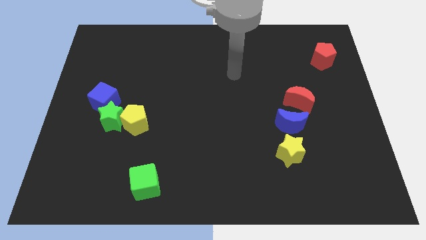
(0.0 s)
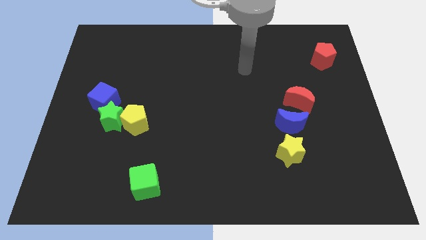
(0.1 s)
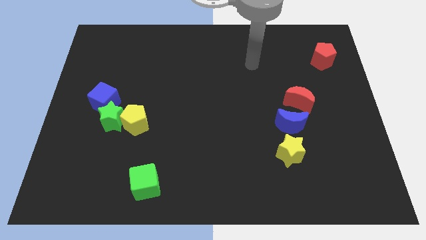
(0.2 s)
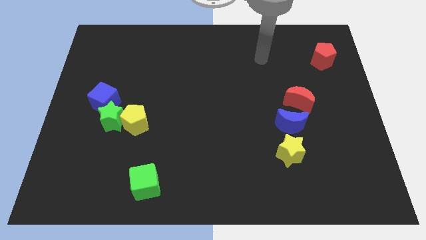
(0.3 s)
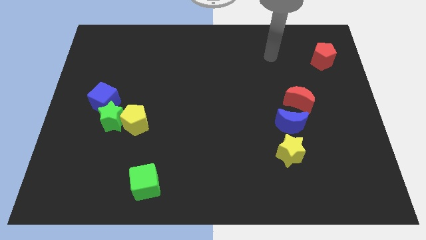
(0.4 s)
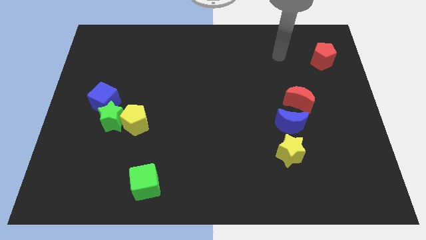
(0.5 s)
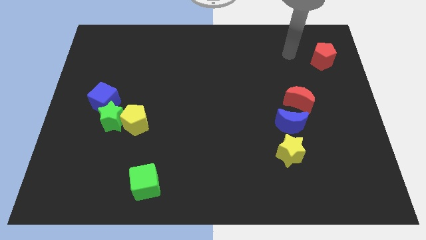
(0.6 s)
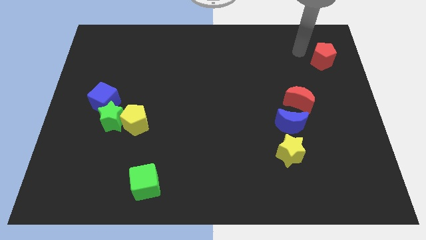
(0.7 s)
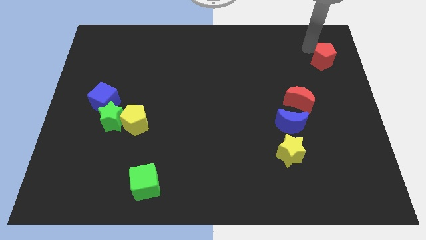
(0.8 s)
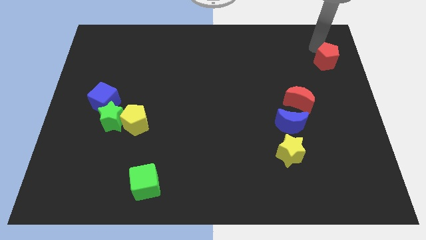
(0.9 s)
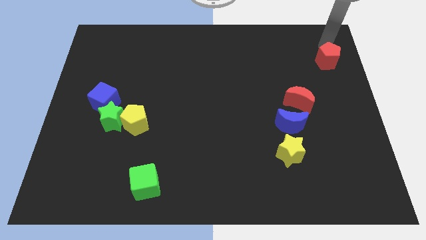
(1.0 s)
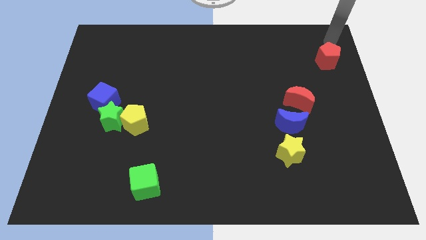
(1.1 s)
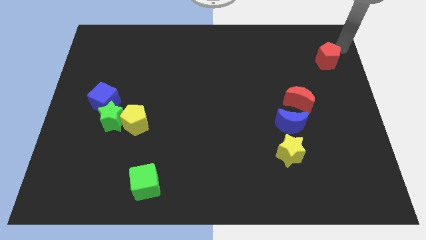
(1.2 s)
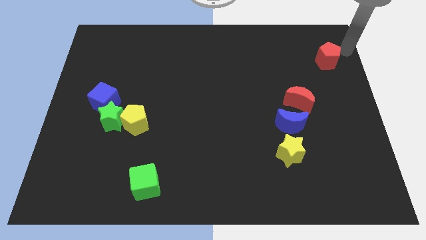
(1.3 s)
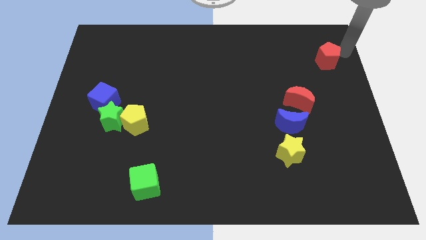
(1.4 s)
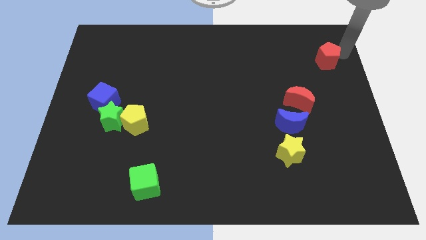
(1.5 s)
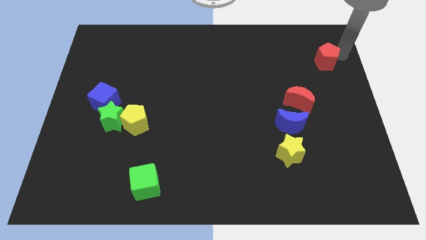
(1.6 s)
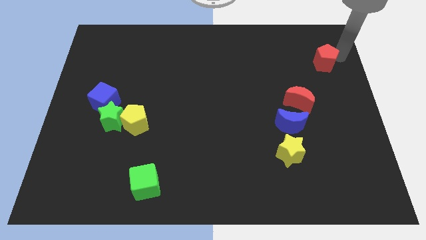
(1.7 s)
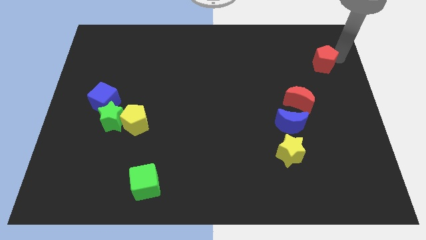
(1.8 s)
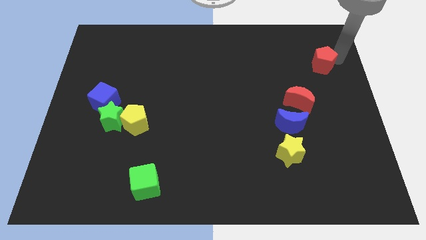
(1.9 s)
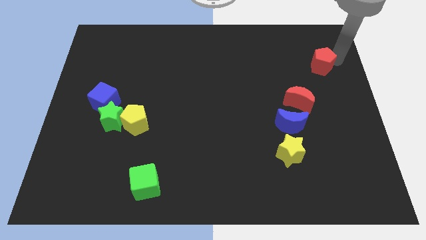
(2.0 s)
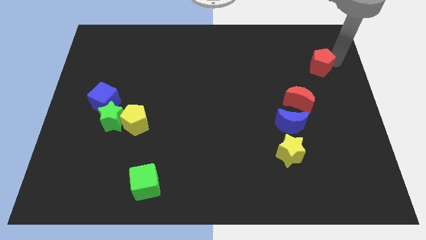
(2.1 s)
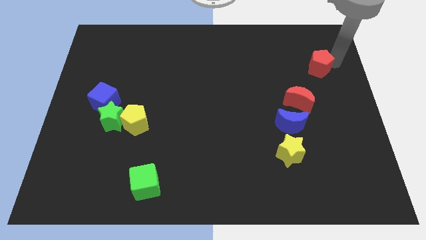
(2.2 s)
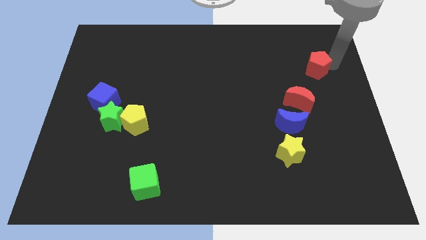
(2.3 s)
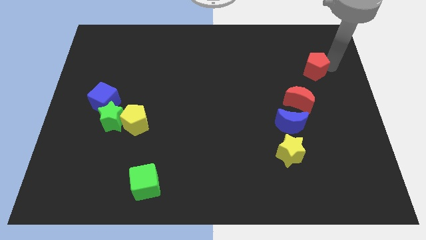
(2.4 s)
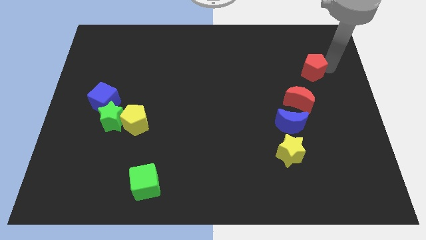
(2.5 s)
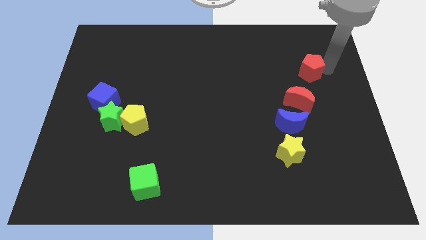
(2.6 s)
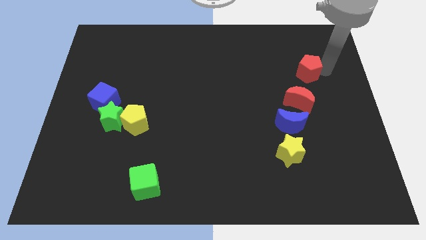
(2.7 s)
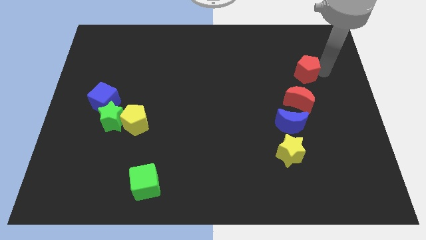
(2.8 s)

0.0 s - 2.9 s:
slightly push the red pentagon diagonally down and to the left

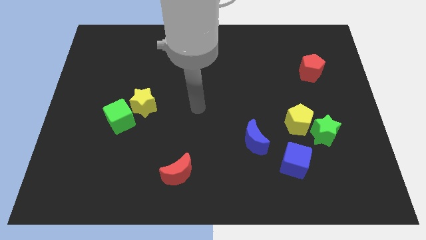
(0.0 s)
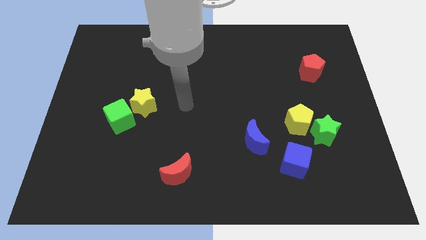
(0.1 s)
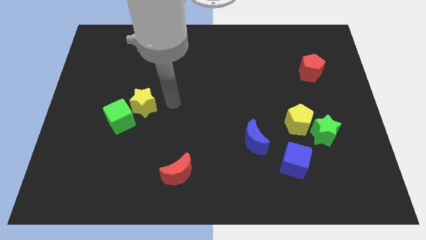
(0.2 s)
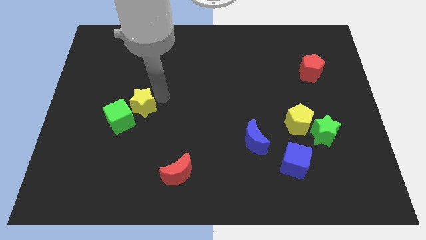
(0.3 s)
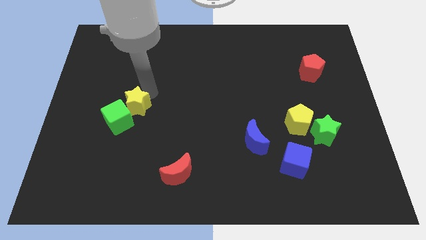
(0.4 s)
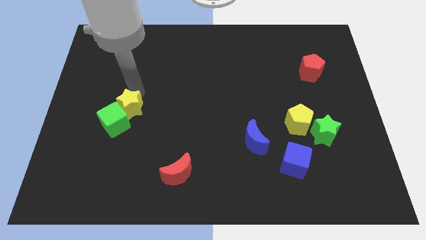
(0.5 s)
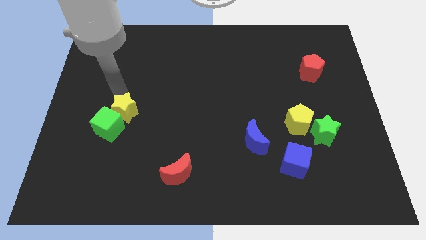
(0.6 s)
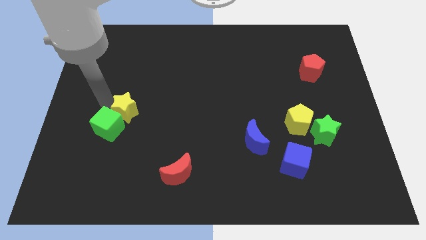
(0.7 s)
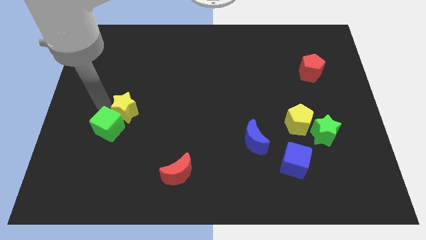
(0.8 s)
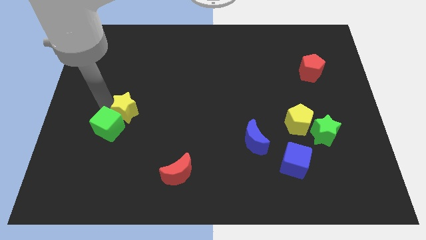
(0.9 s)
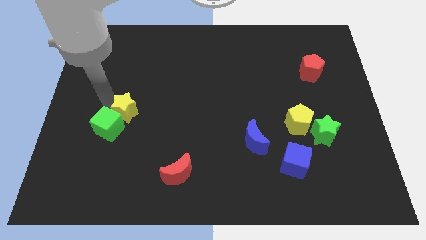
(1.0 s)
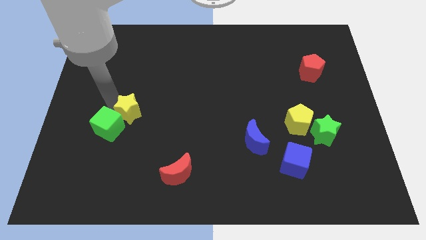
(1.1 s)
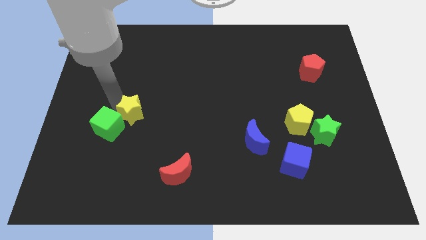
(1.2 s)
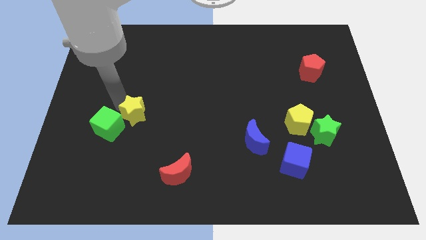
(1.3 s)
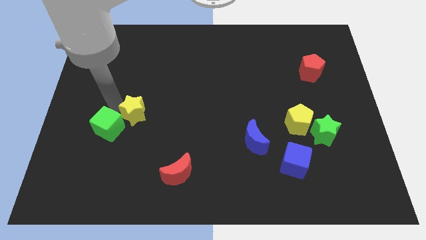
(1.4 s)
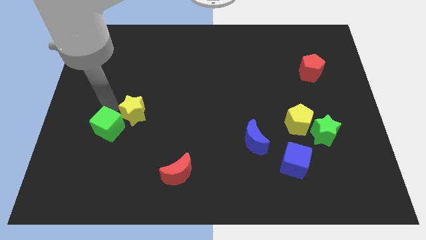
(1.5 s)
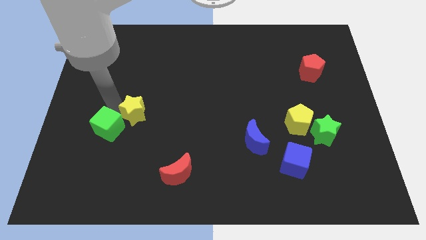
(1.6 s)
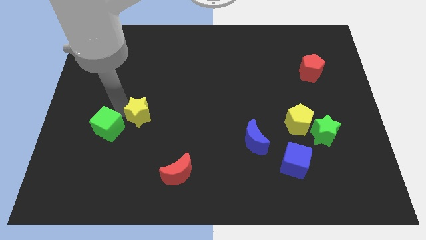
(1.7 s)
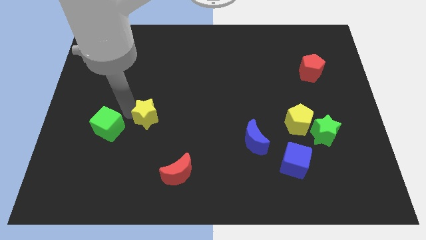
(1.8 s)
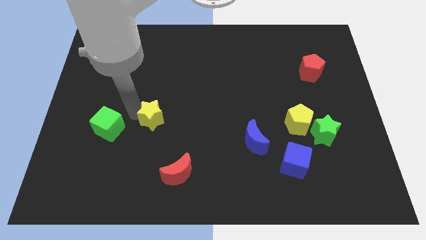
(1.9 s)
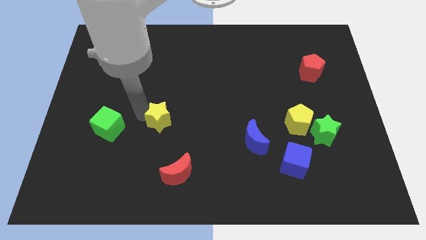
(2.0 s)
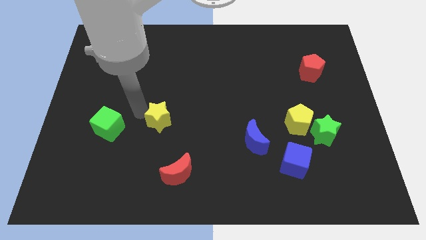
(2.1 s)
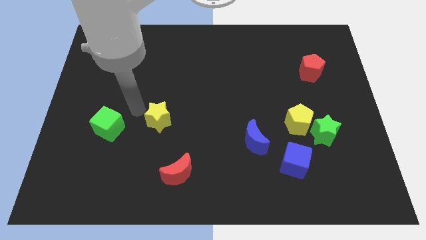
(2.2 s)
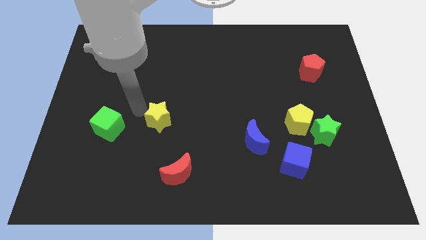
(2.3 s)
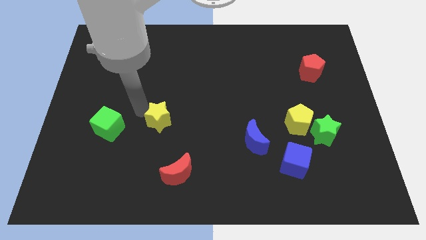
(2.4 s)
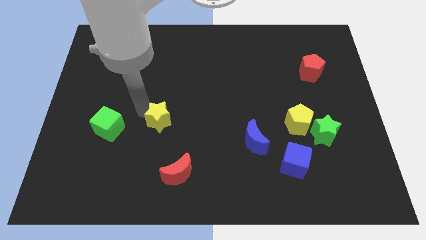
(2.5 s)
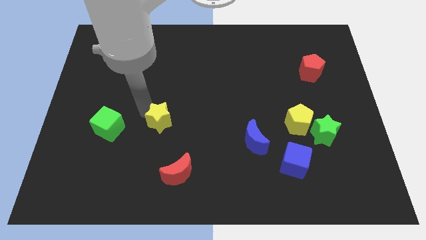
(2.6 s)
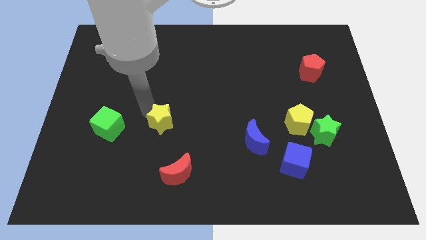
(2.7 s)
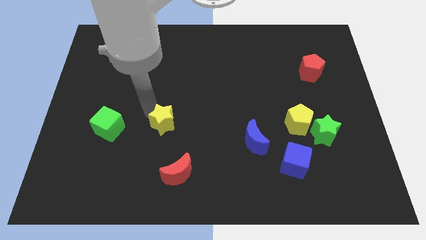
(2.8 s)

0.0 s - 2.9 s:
slightly push the yellow star down and then to the right

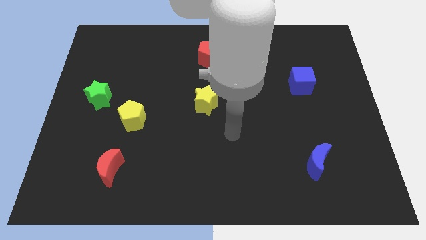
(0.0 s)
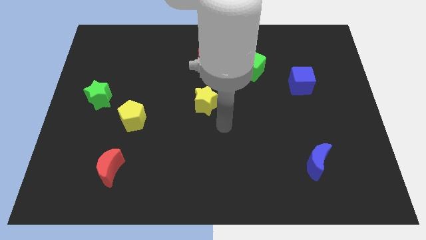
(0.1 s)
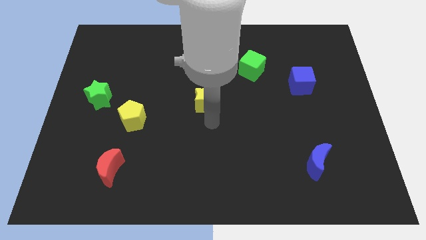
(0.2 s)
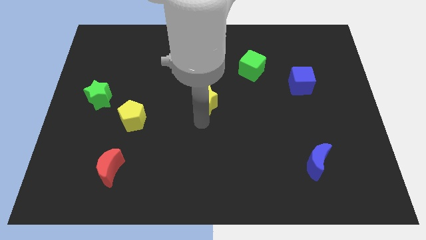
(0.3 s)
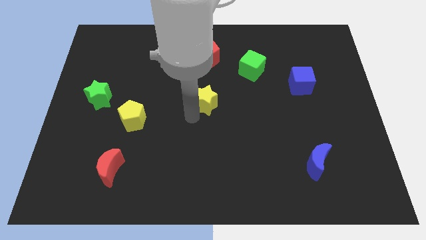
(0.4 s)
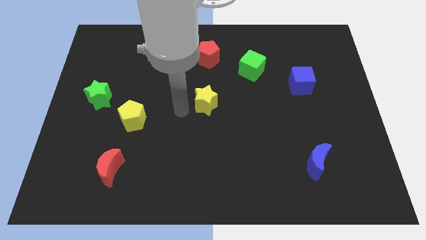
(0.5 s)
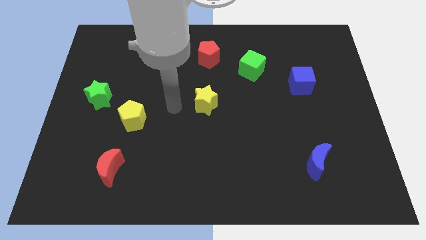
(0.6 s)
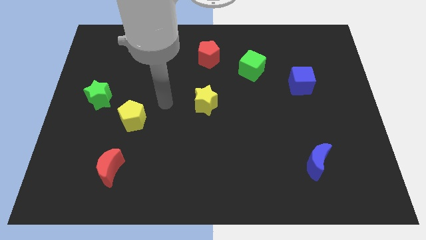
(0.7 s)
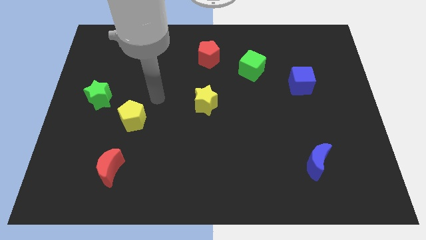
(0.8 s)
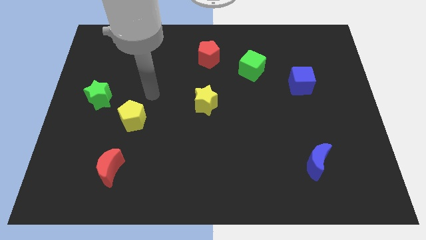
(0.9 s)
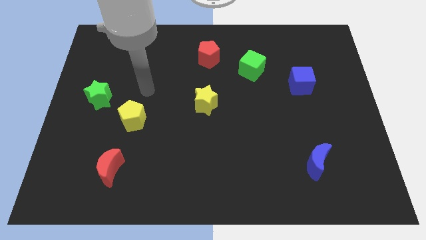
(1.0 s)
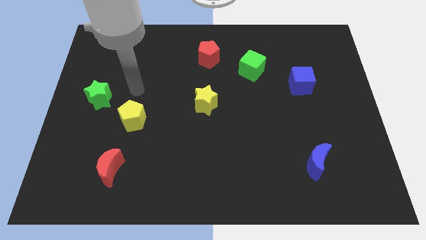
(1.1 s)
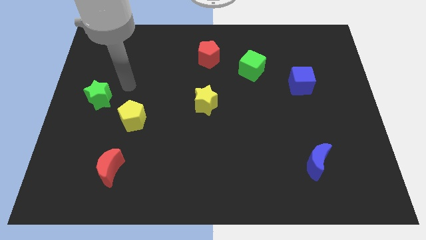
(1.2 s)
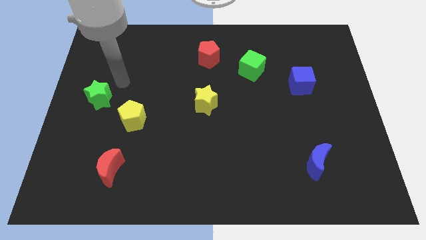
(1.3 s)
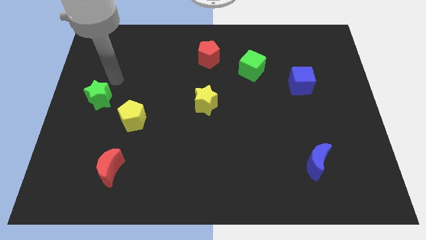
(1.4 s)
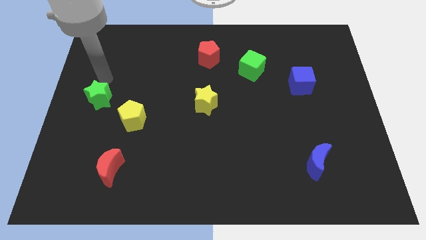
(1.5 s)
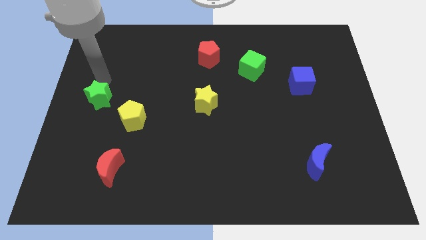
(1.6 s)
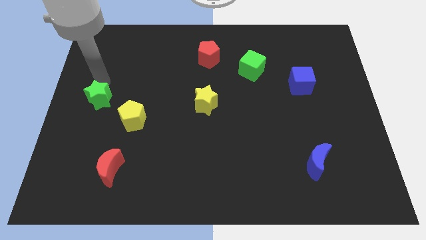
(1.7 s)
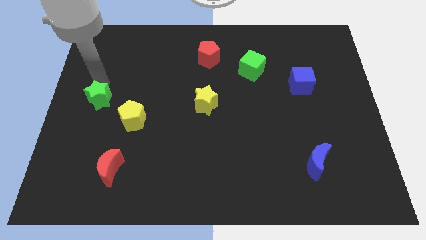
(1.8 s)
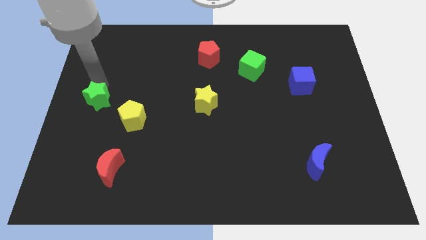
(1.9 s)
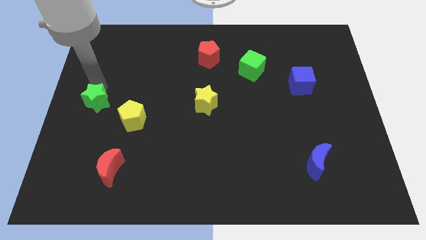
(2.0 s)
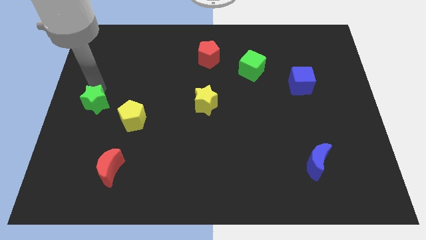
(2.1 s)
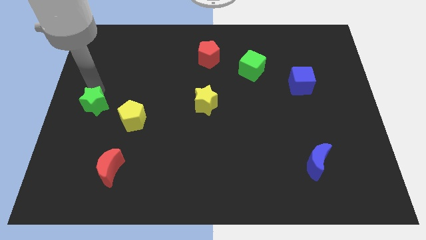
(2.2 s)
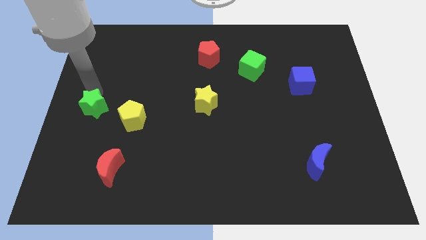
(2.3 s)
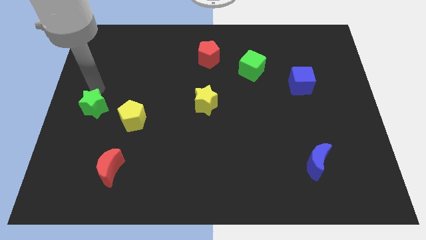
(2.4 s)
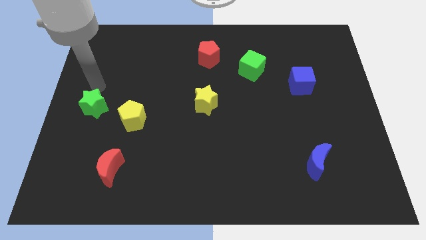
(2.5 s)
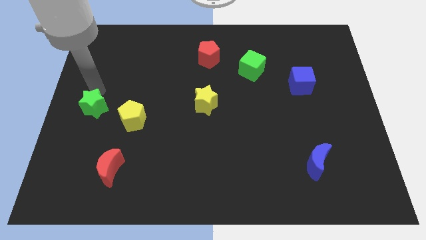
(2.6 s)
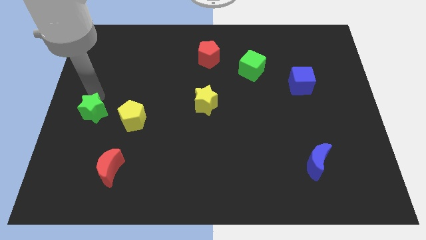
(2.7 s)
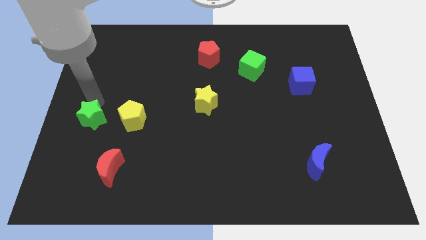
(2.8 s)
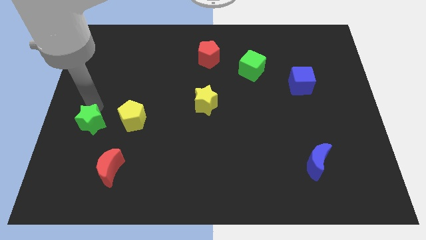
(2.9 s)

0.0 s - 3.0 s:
slightly slide the green star down
